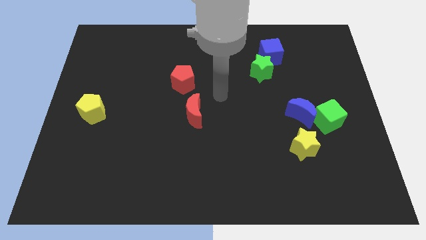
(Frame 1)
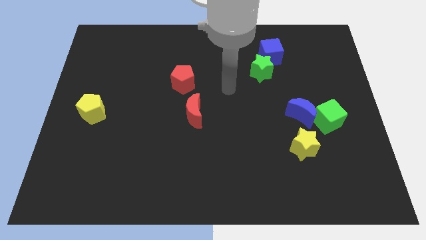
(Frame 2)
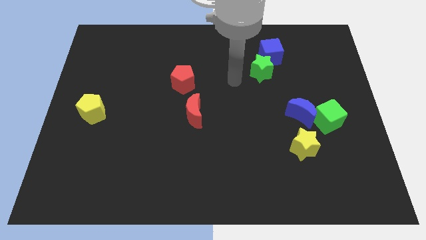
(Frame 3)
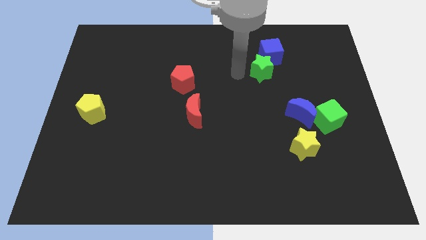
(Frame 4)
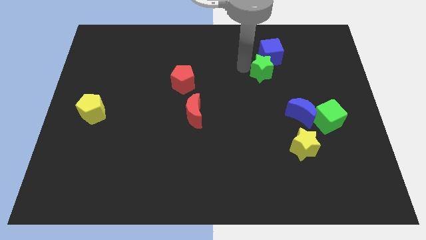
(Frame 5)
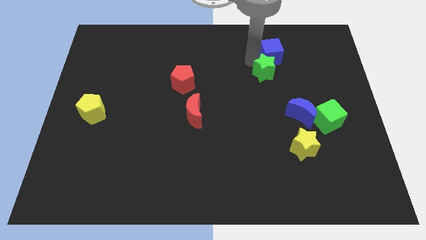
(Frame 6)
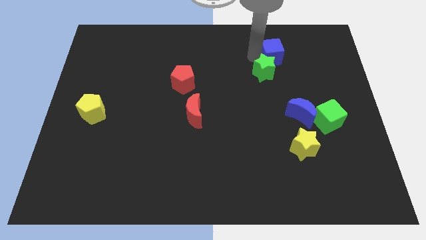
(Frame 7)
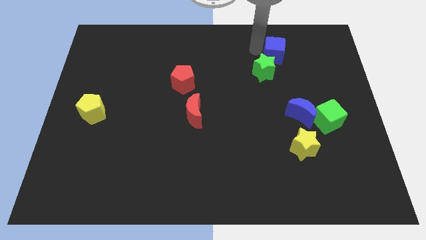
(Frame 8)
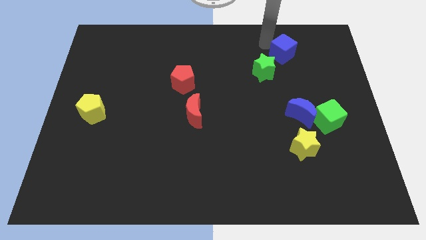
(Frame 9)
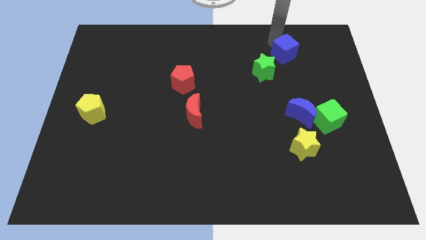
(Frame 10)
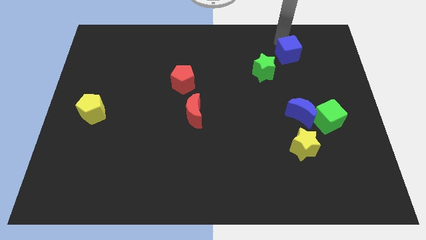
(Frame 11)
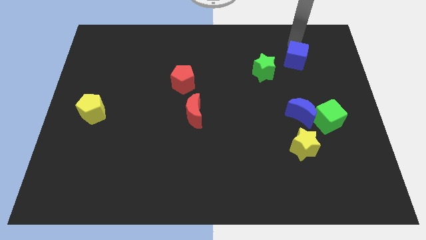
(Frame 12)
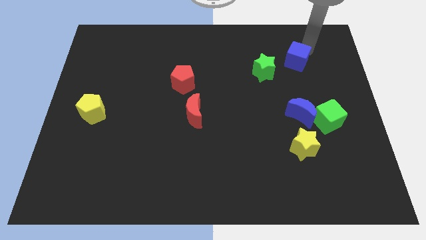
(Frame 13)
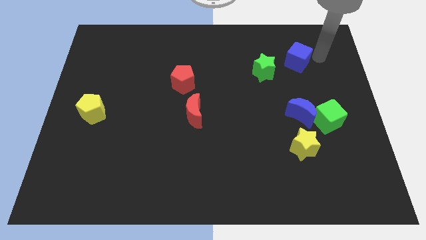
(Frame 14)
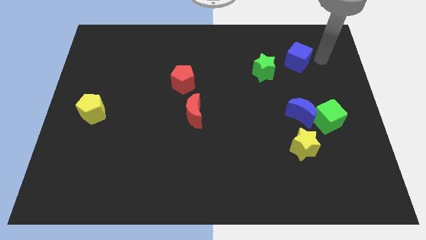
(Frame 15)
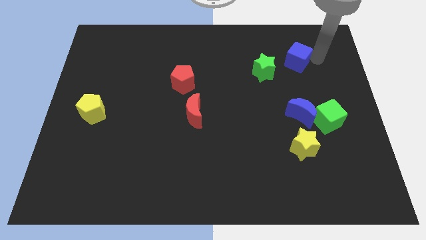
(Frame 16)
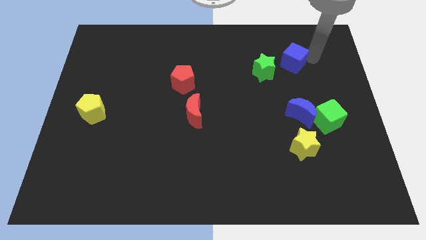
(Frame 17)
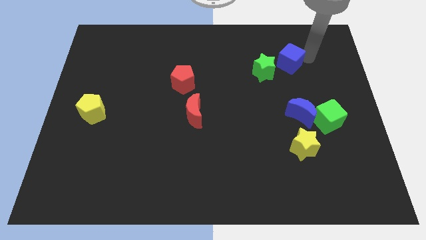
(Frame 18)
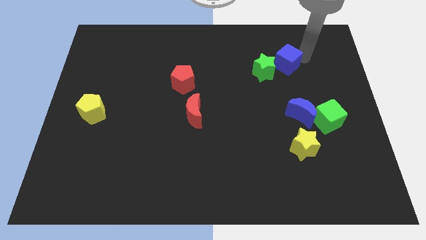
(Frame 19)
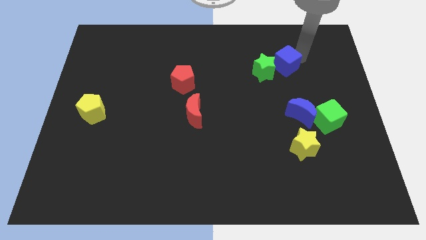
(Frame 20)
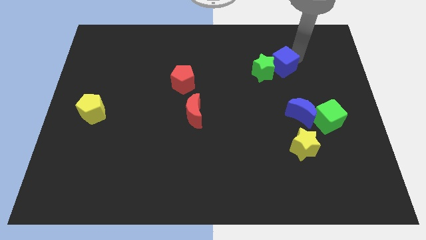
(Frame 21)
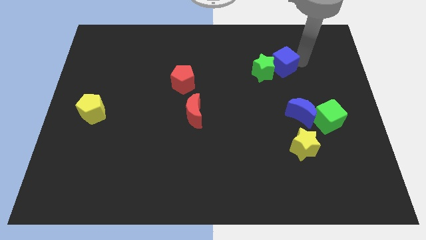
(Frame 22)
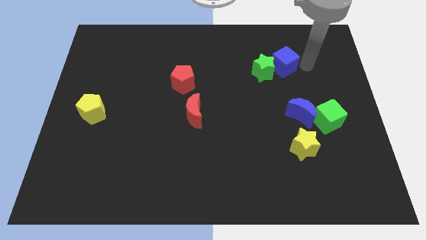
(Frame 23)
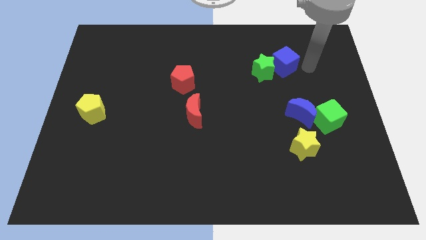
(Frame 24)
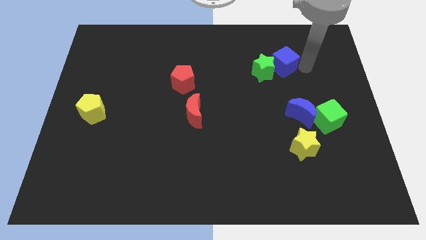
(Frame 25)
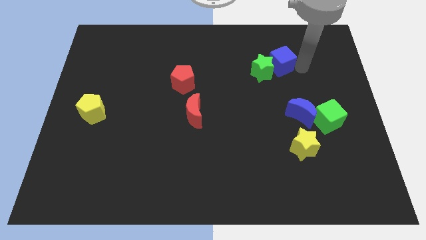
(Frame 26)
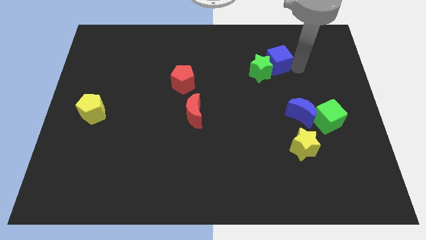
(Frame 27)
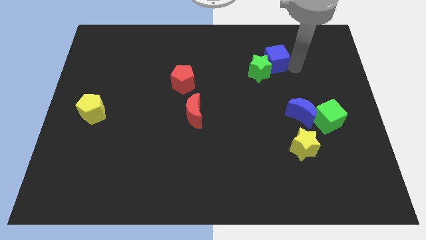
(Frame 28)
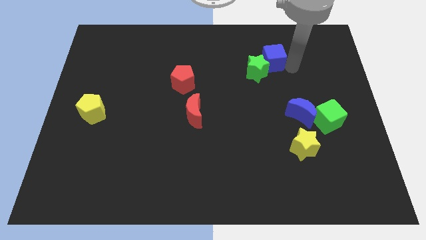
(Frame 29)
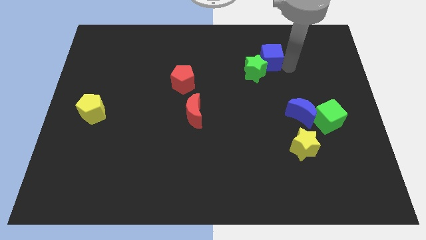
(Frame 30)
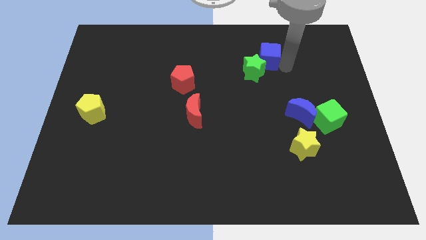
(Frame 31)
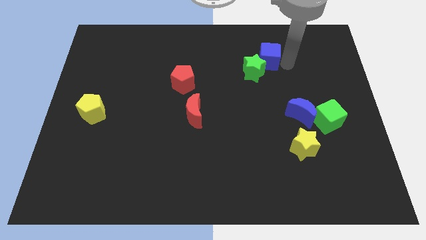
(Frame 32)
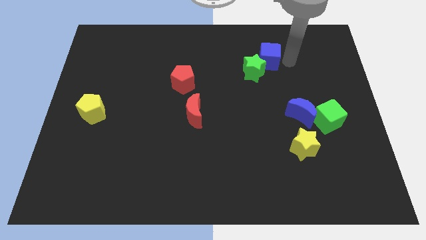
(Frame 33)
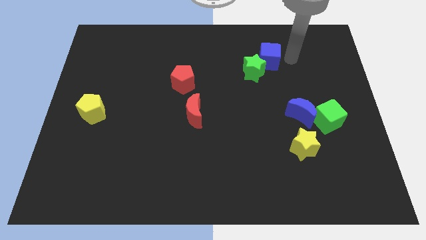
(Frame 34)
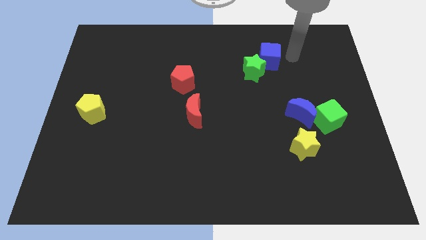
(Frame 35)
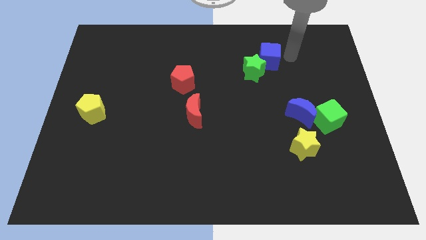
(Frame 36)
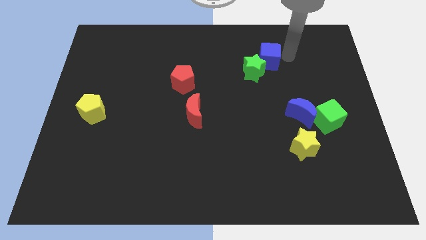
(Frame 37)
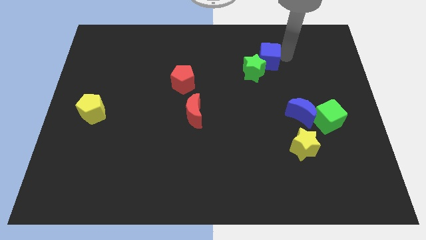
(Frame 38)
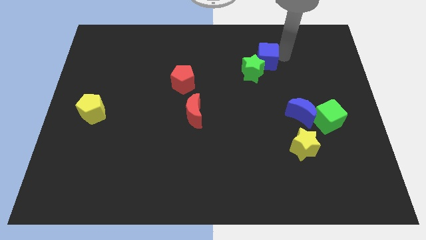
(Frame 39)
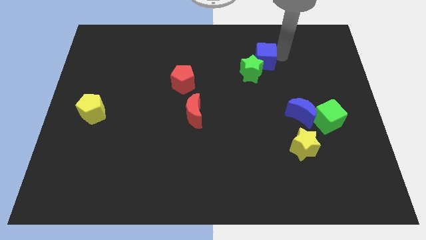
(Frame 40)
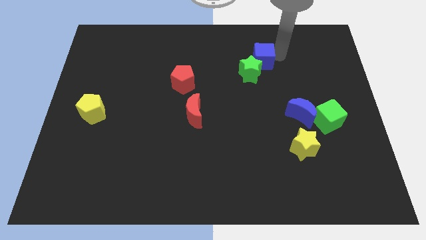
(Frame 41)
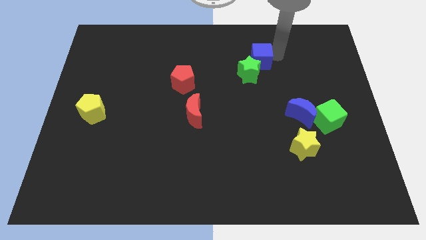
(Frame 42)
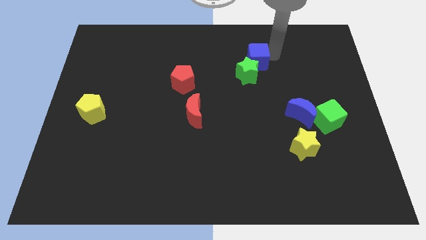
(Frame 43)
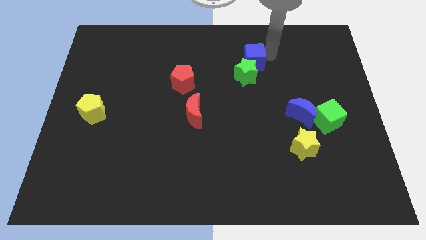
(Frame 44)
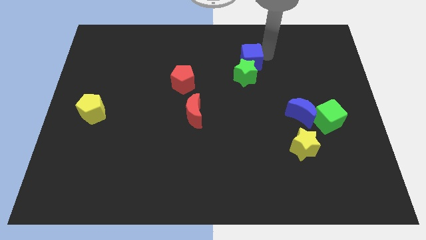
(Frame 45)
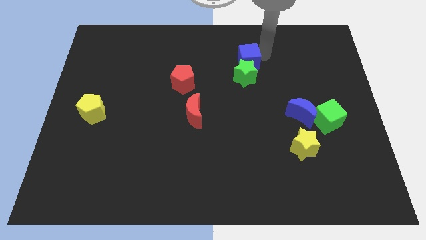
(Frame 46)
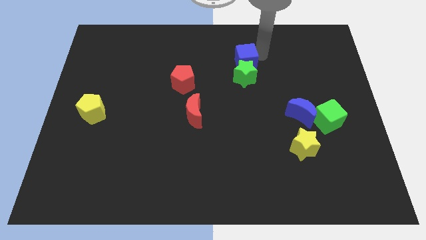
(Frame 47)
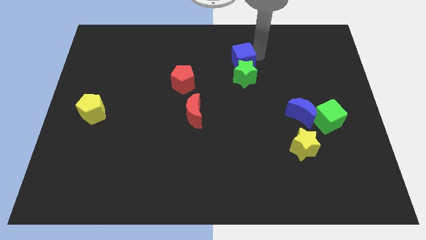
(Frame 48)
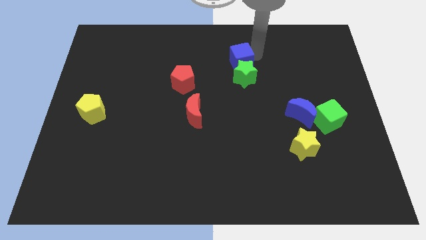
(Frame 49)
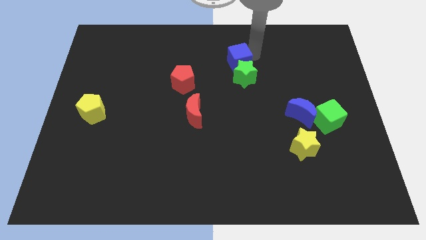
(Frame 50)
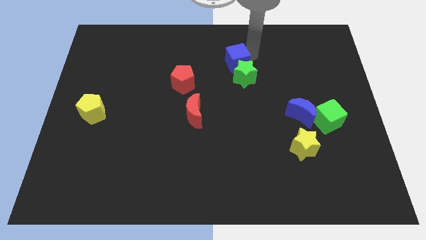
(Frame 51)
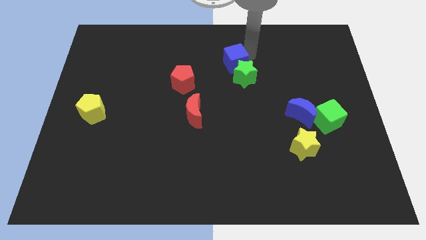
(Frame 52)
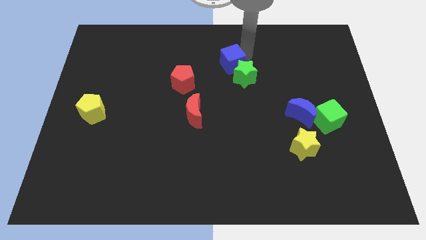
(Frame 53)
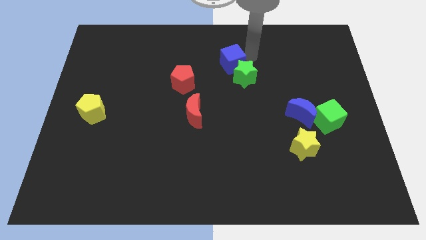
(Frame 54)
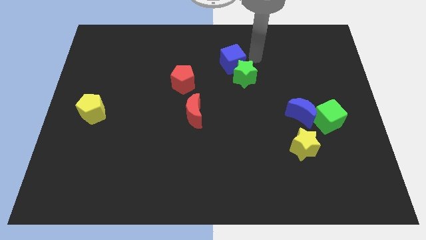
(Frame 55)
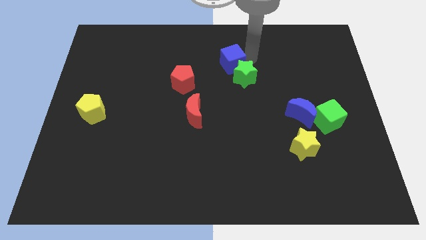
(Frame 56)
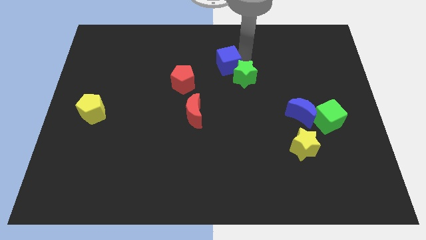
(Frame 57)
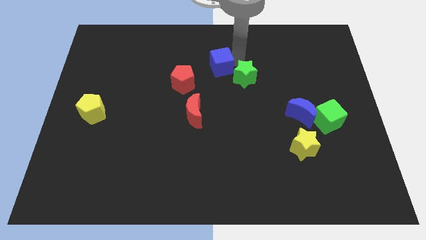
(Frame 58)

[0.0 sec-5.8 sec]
slide the blue cube to the top right side of the red pentagon

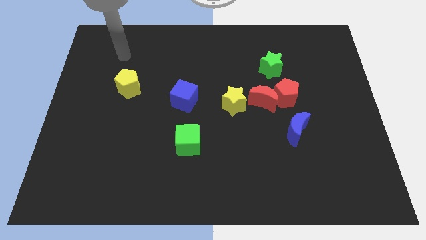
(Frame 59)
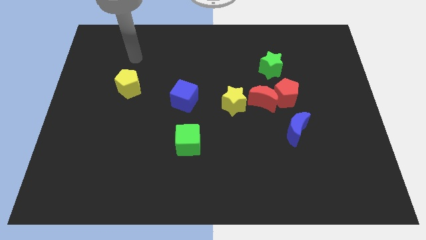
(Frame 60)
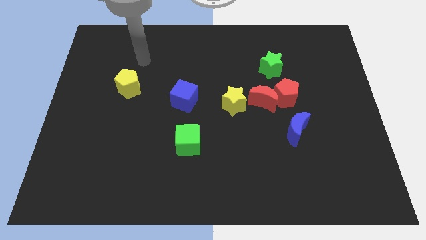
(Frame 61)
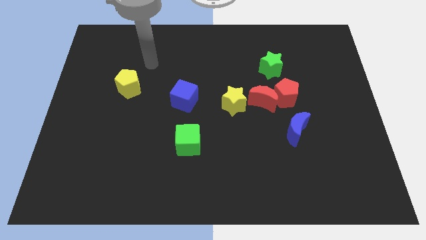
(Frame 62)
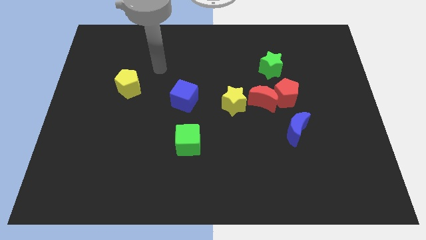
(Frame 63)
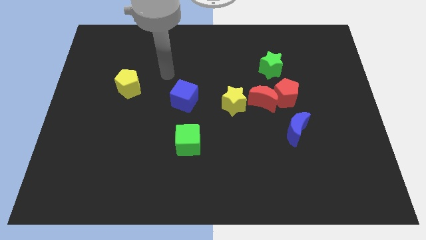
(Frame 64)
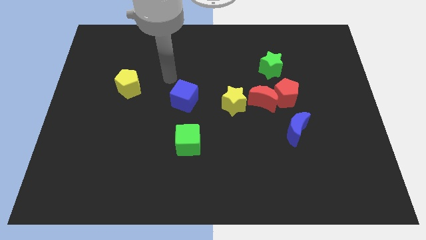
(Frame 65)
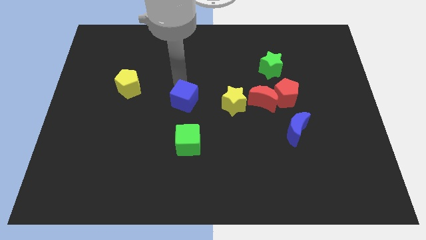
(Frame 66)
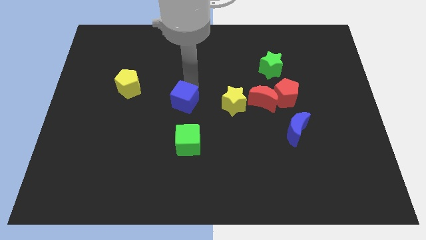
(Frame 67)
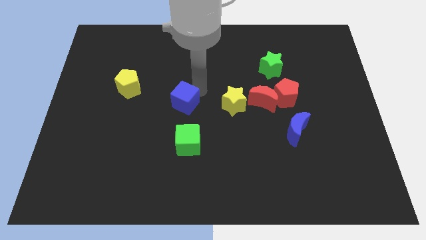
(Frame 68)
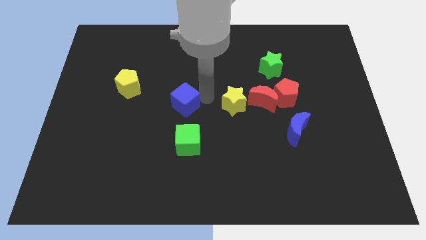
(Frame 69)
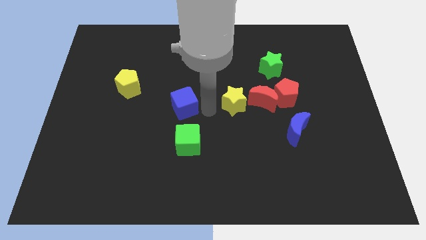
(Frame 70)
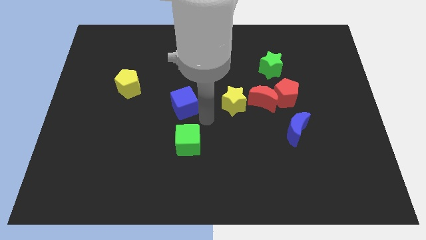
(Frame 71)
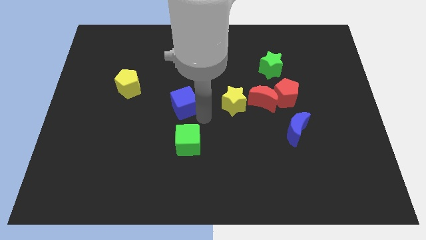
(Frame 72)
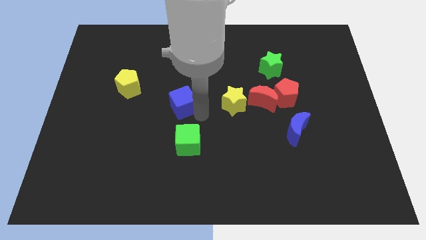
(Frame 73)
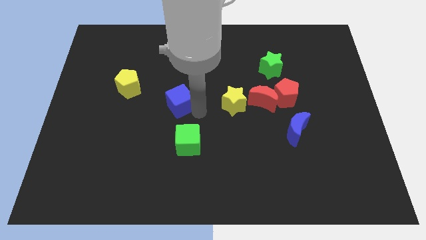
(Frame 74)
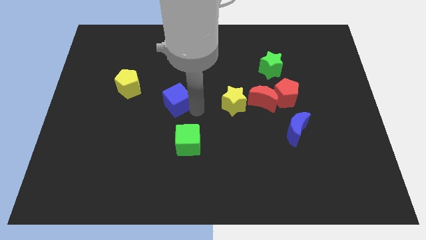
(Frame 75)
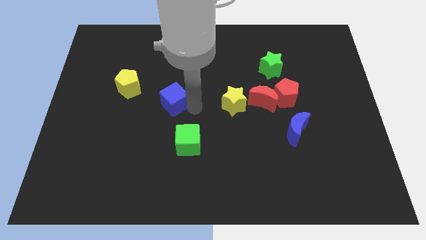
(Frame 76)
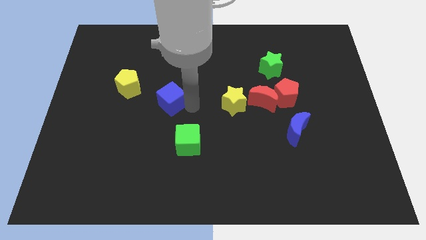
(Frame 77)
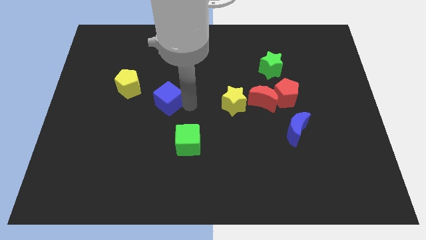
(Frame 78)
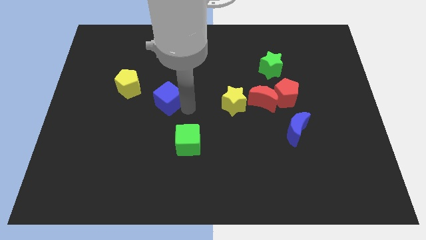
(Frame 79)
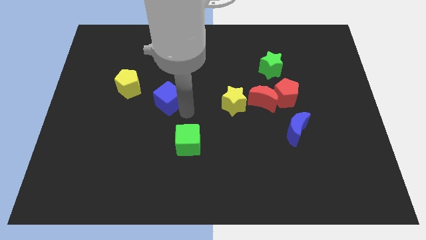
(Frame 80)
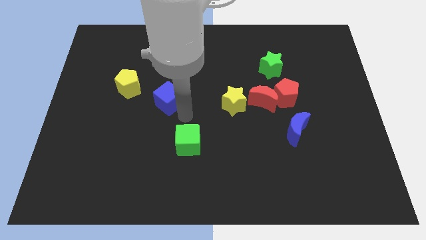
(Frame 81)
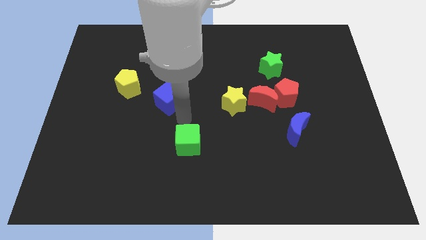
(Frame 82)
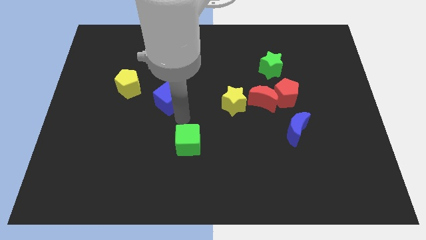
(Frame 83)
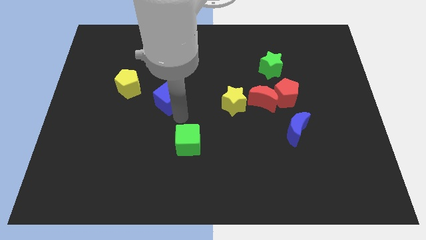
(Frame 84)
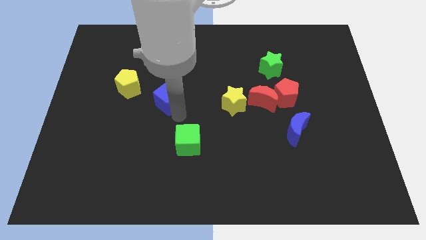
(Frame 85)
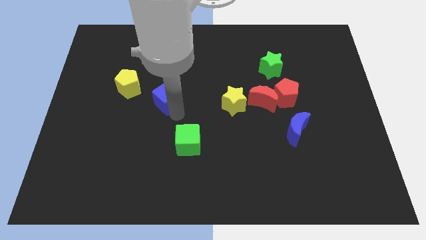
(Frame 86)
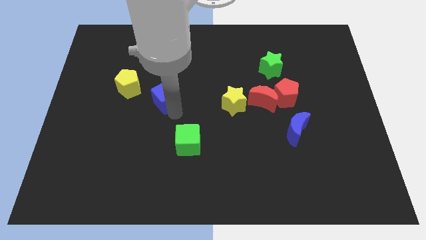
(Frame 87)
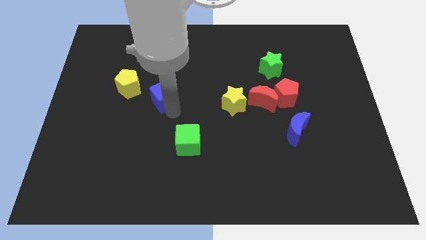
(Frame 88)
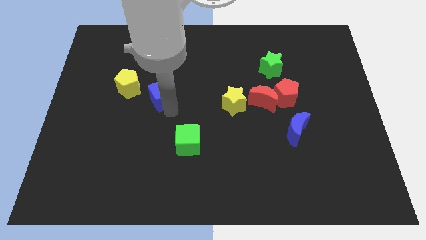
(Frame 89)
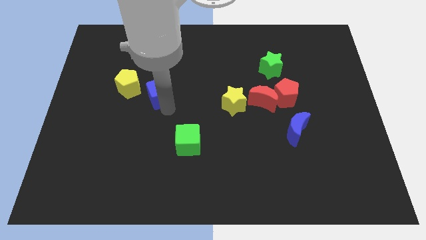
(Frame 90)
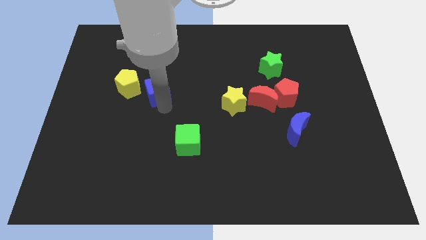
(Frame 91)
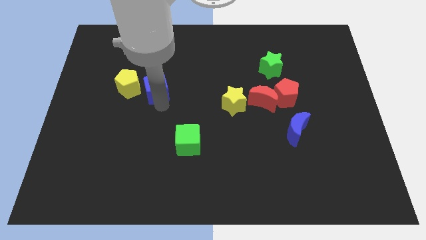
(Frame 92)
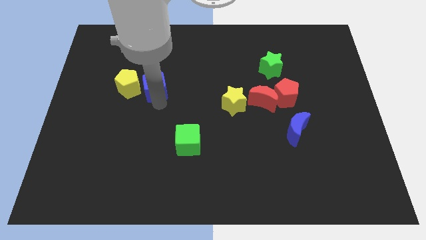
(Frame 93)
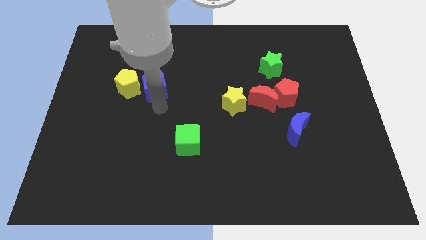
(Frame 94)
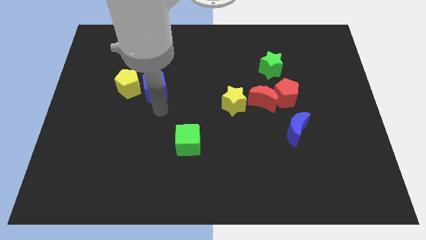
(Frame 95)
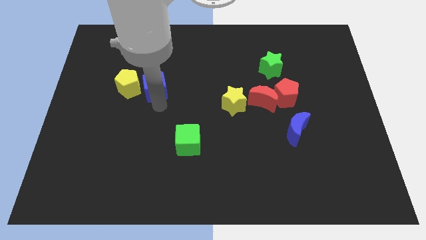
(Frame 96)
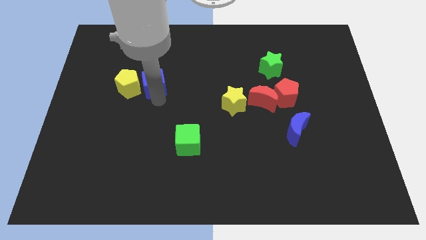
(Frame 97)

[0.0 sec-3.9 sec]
move the blue cube to the top right side of the yellow pentagon
